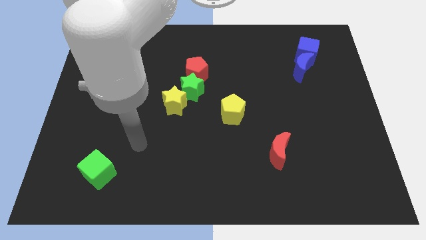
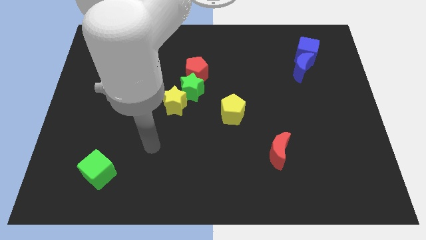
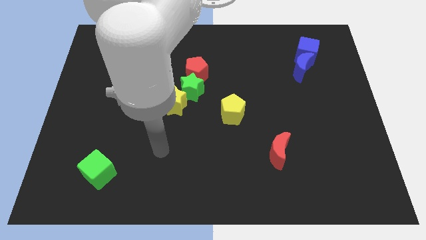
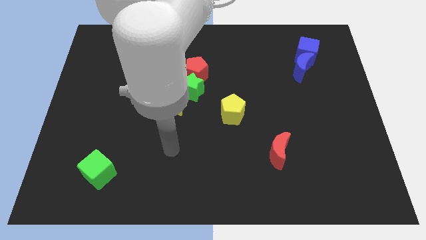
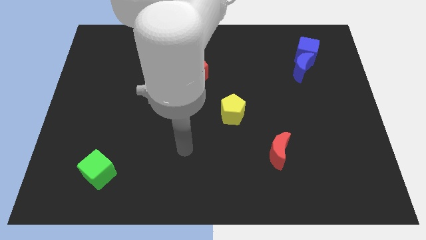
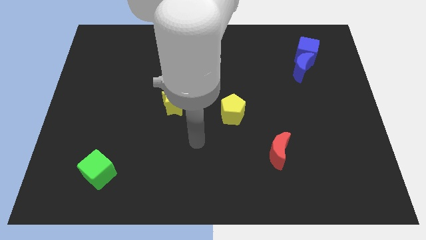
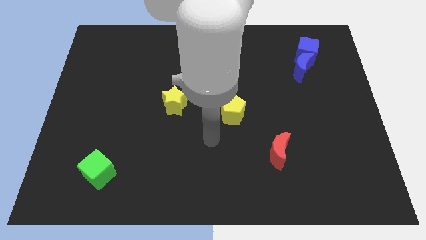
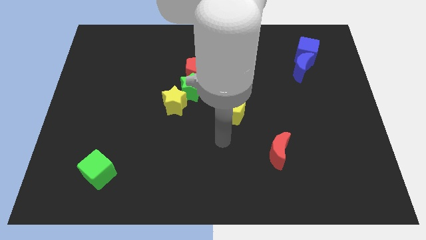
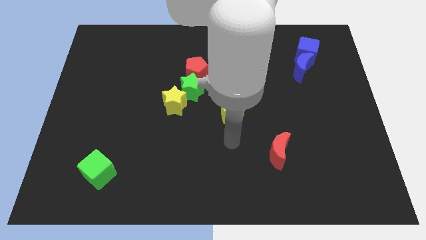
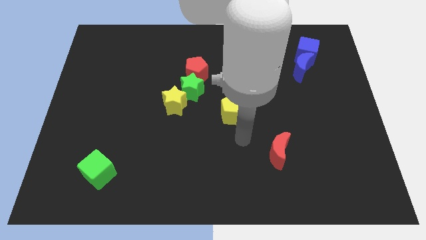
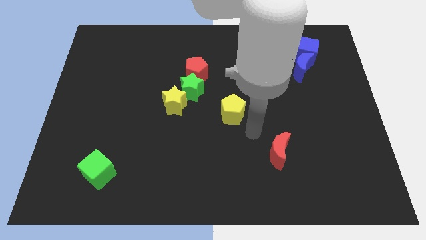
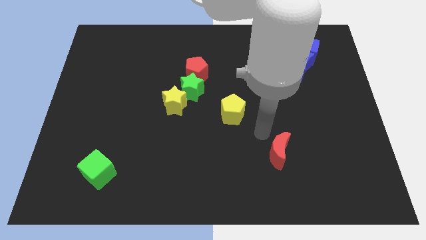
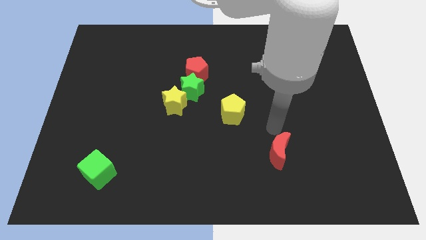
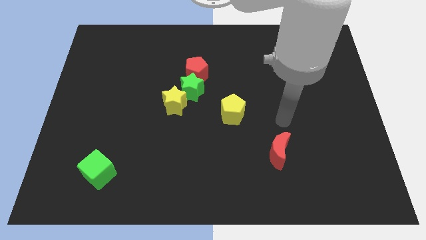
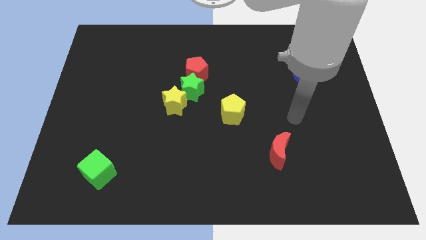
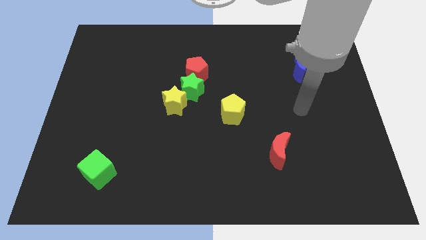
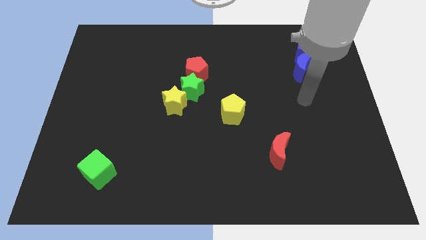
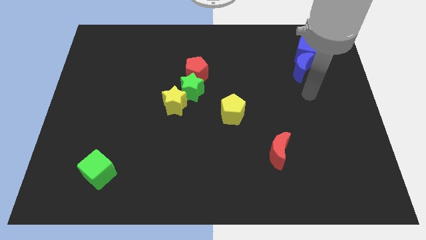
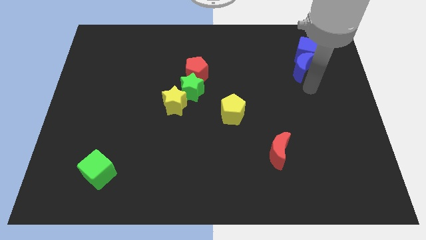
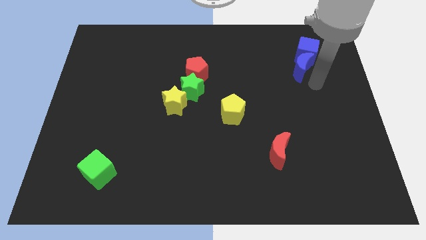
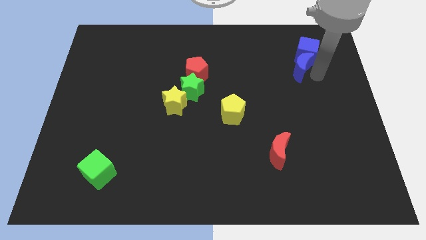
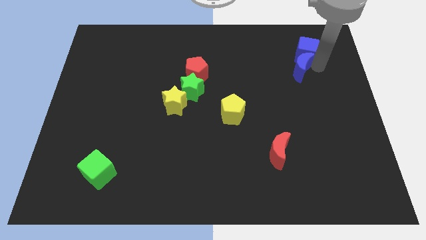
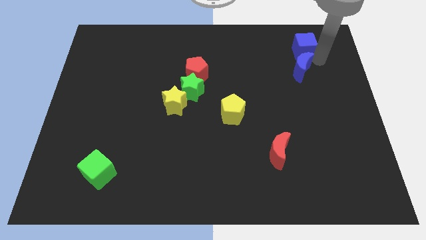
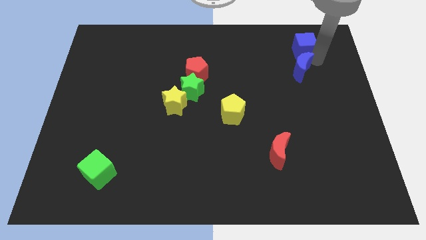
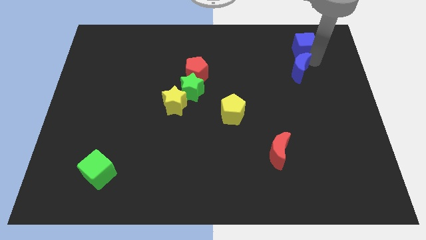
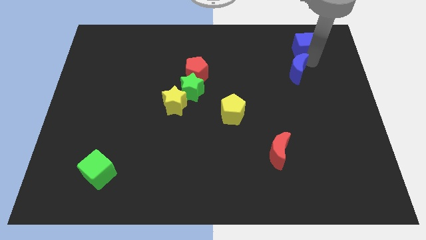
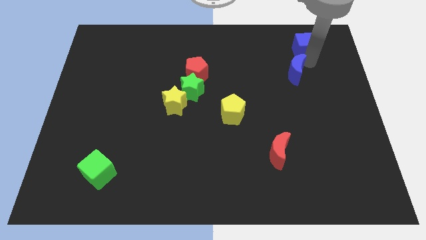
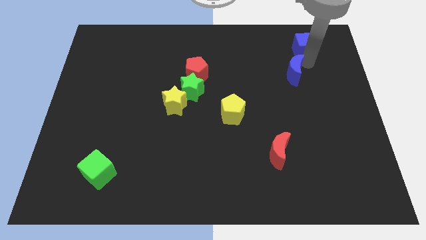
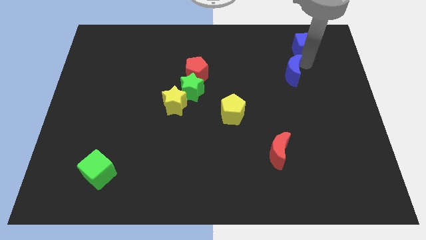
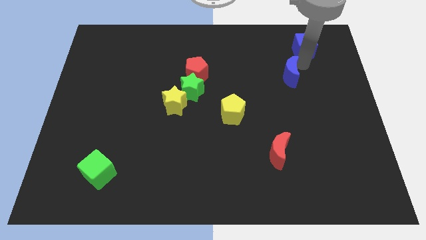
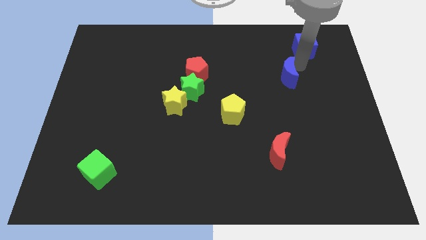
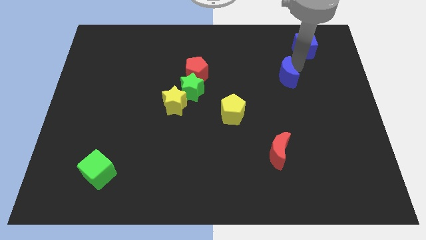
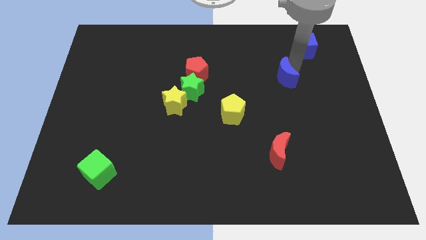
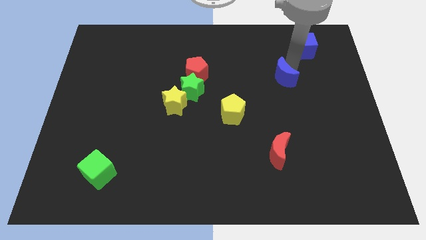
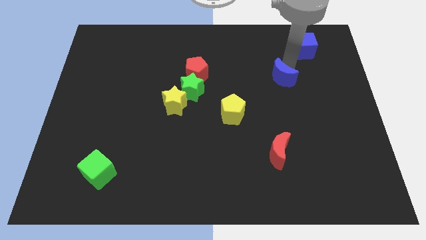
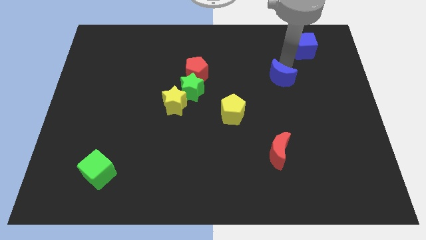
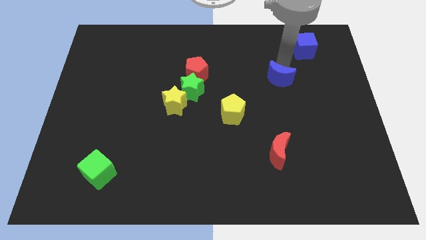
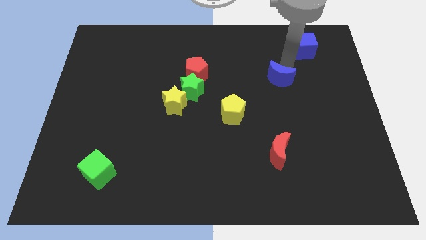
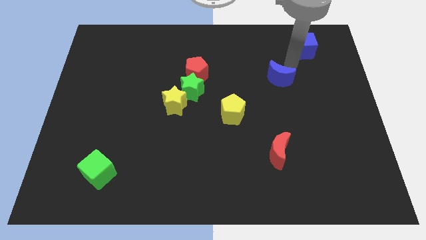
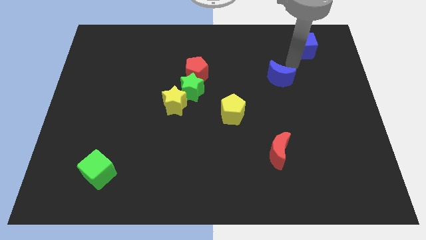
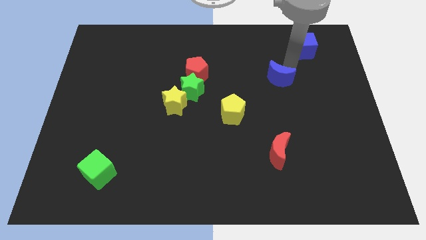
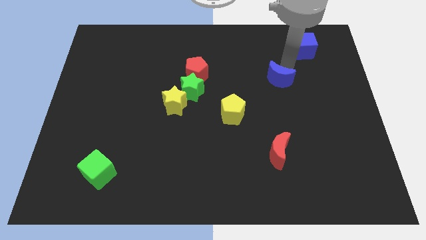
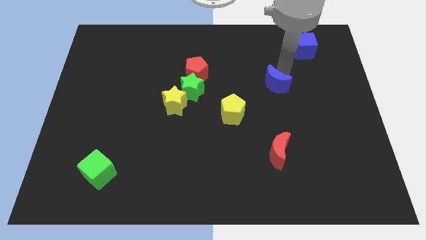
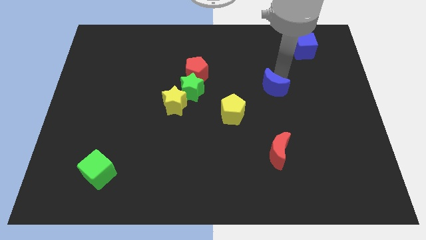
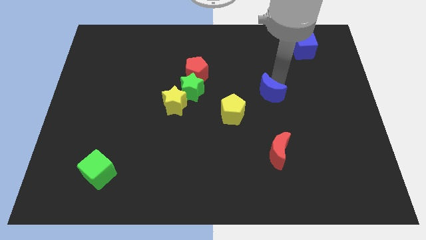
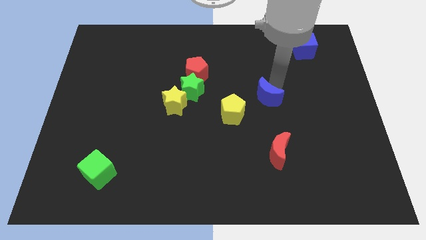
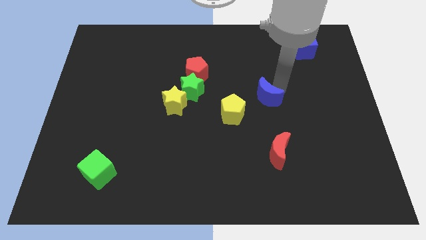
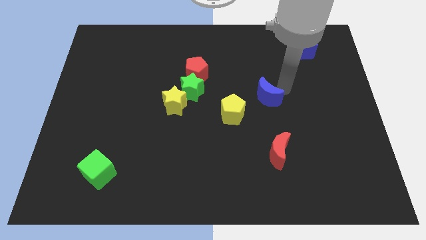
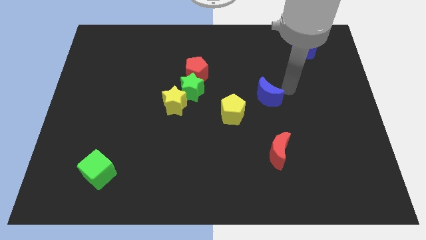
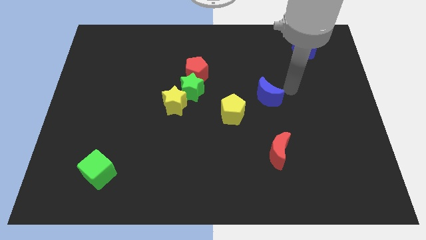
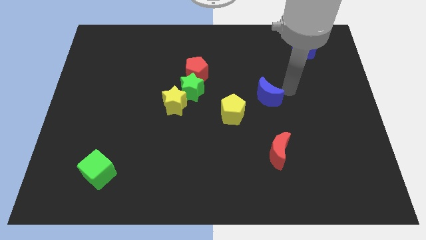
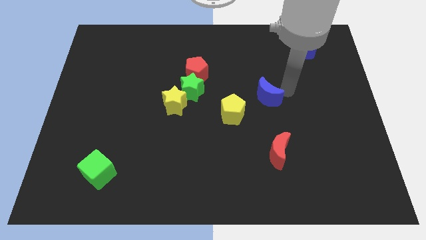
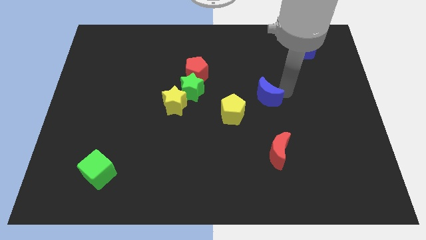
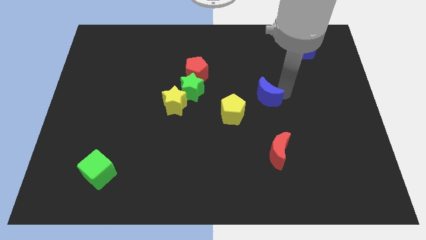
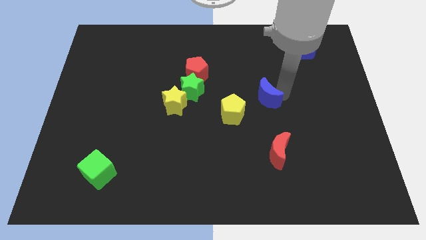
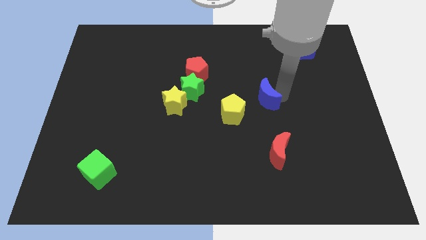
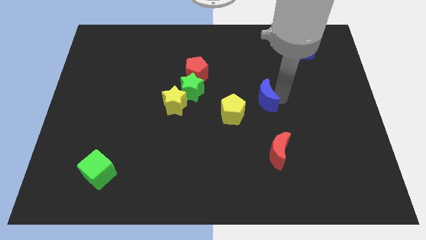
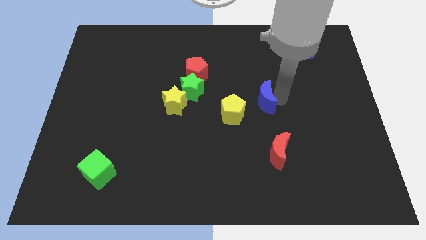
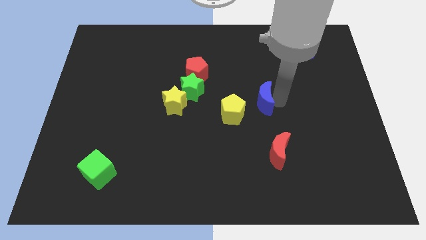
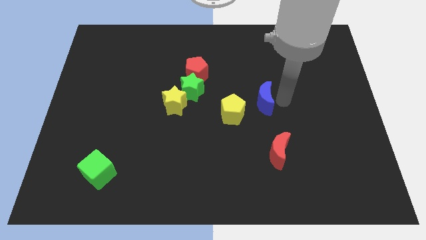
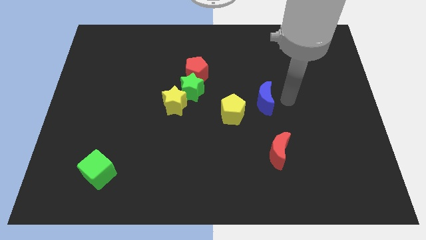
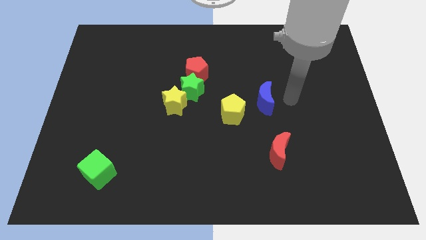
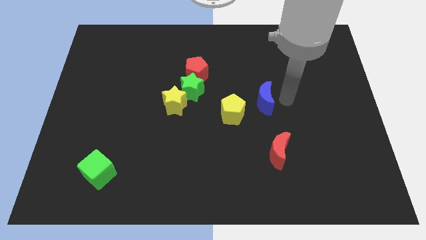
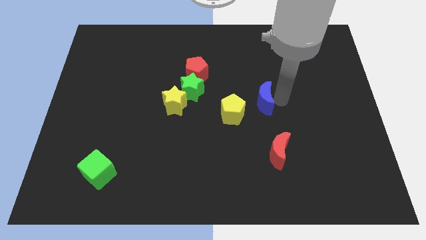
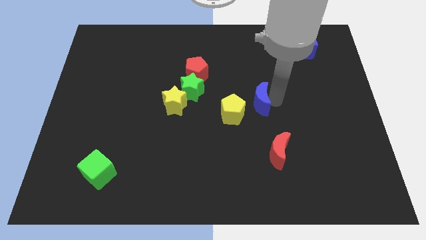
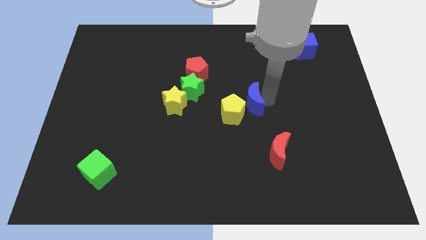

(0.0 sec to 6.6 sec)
push the blue moon close to the yellow pentagon

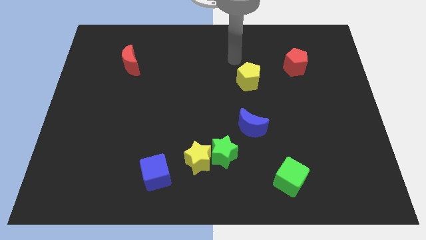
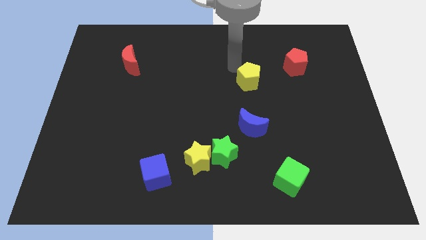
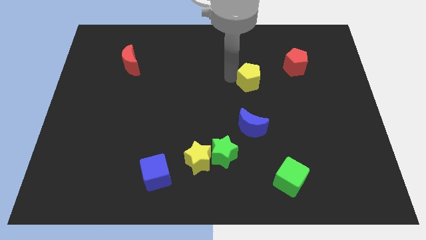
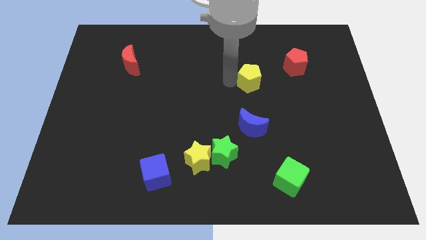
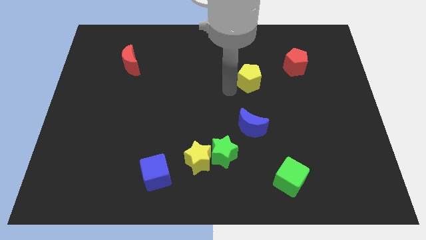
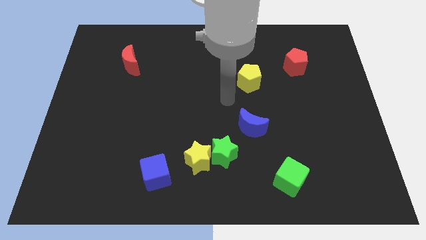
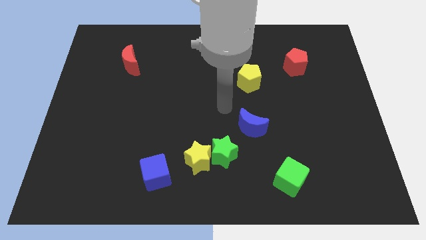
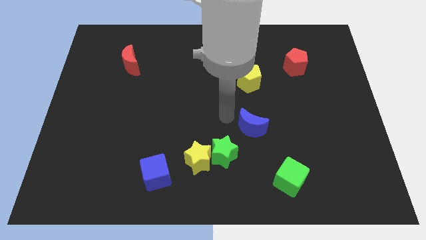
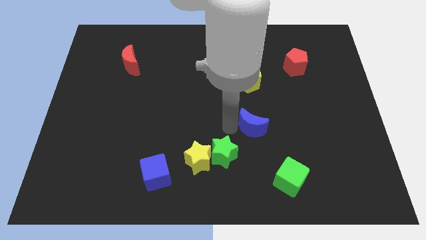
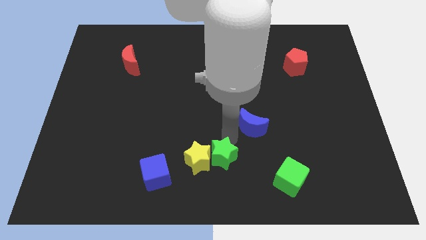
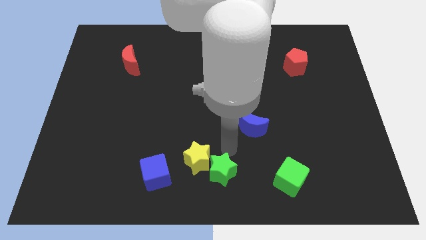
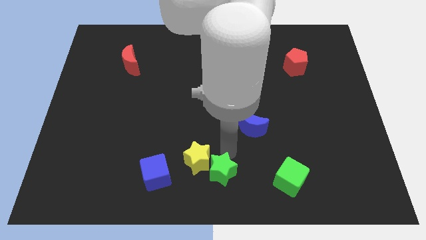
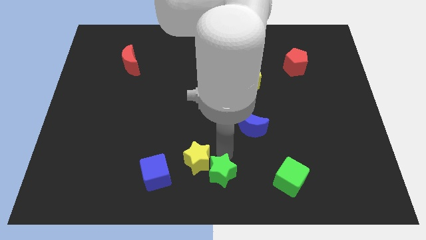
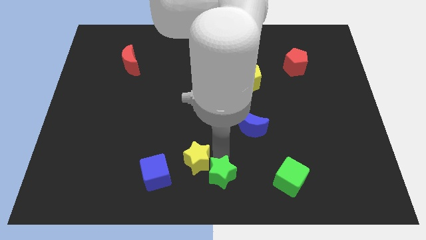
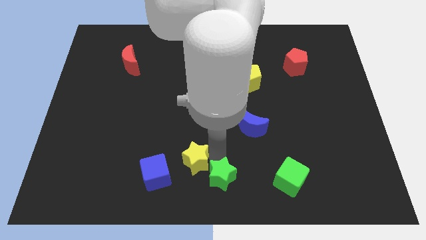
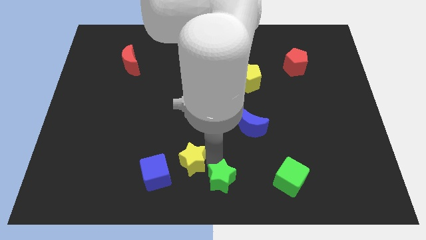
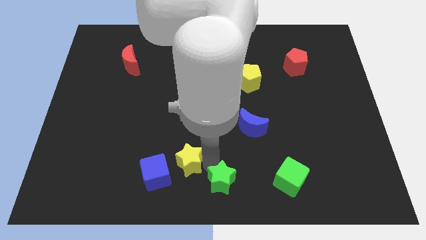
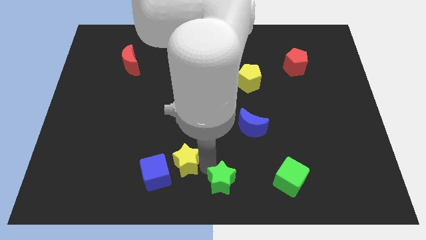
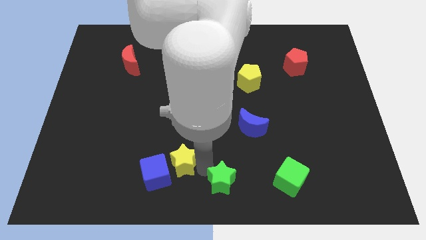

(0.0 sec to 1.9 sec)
push the yellow star to the blue cube
